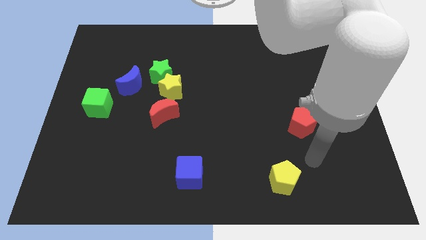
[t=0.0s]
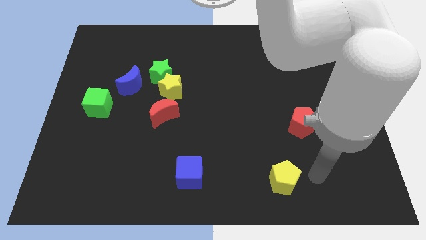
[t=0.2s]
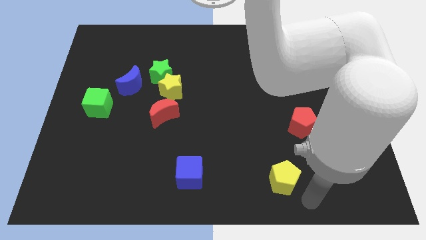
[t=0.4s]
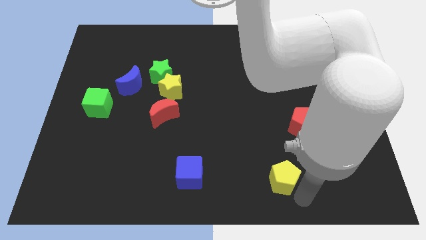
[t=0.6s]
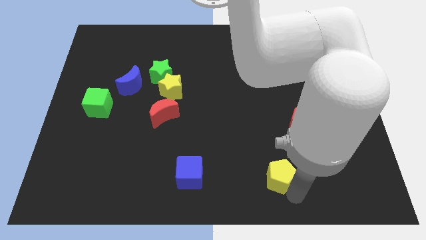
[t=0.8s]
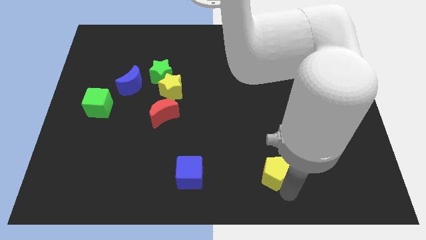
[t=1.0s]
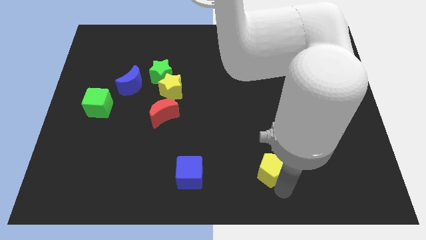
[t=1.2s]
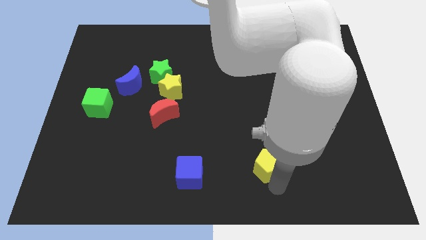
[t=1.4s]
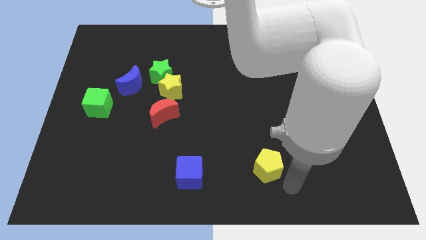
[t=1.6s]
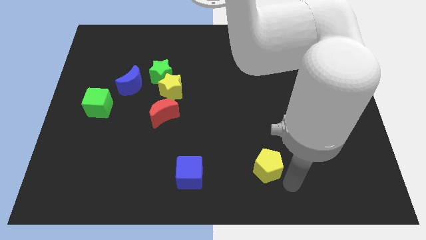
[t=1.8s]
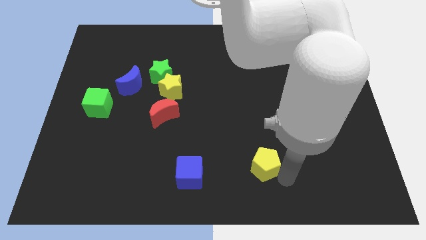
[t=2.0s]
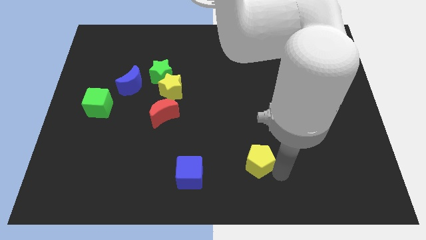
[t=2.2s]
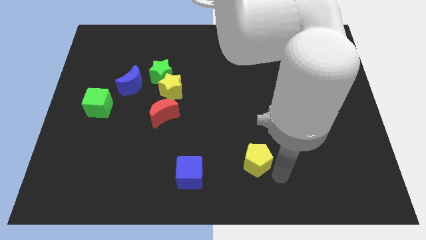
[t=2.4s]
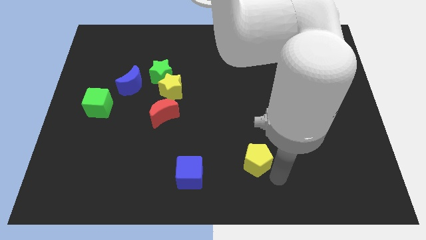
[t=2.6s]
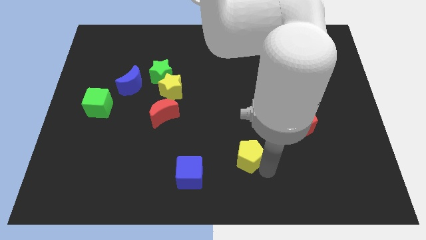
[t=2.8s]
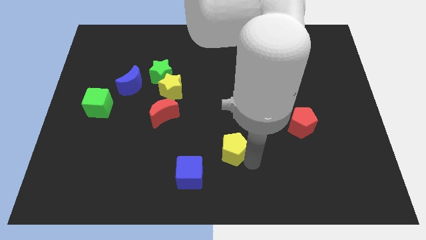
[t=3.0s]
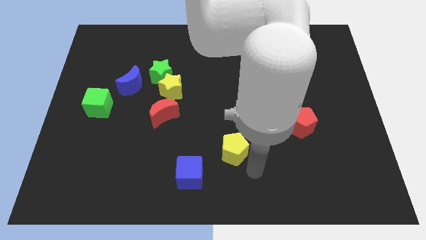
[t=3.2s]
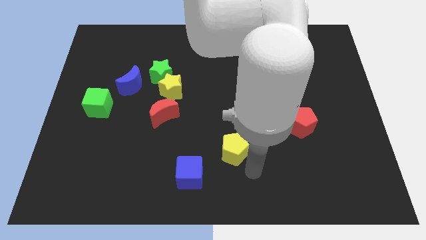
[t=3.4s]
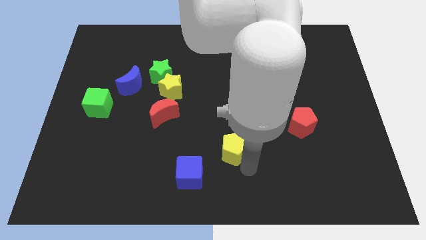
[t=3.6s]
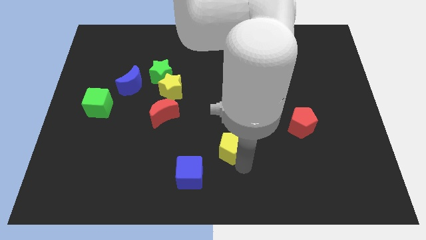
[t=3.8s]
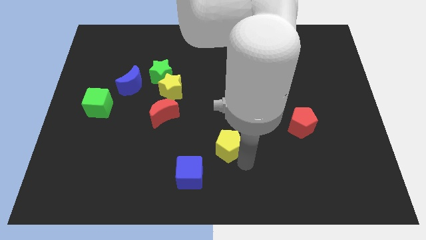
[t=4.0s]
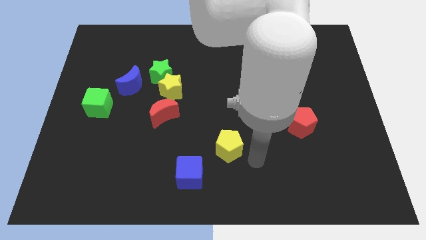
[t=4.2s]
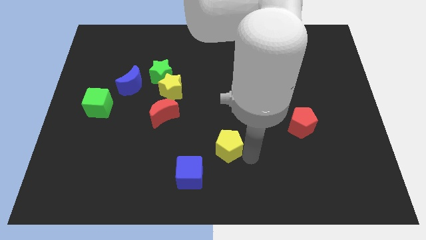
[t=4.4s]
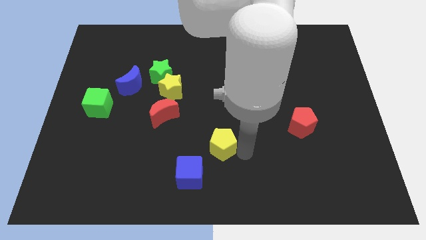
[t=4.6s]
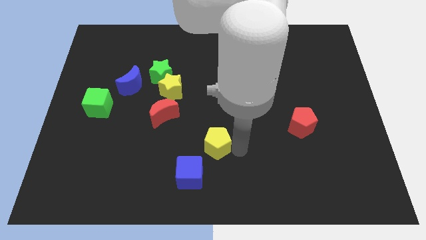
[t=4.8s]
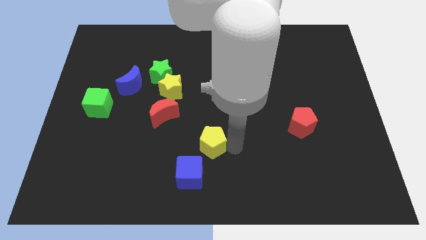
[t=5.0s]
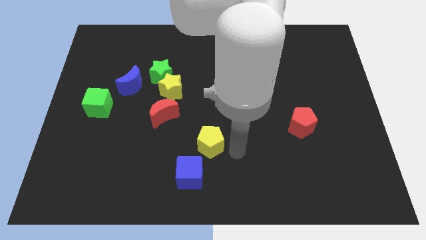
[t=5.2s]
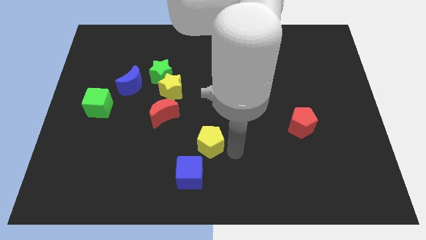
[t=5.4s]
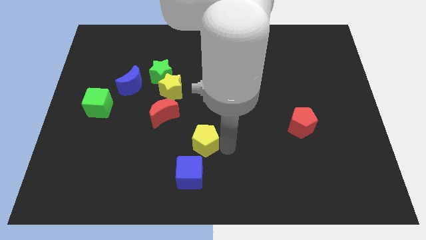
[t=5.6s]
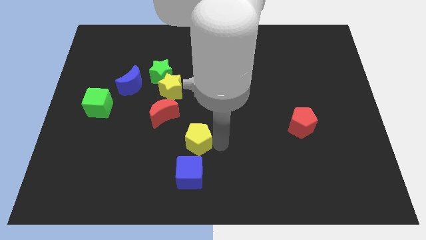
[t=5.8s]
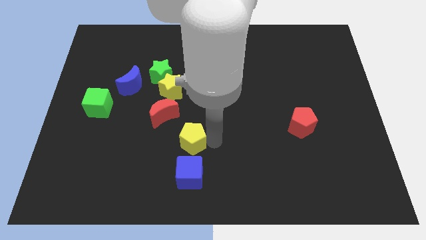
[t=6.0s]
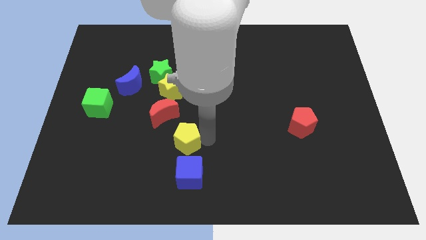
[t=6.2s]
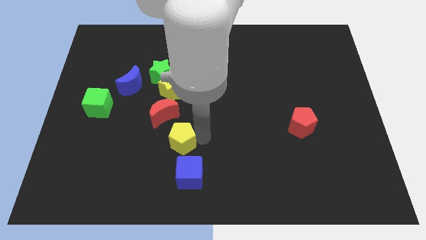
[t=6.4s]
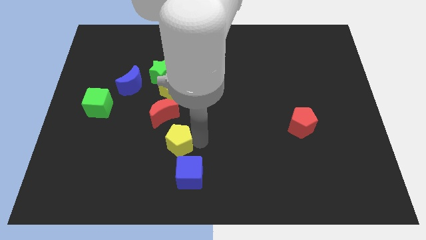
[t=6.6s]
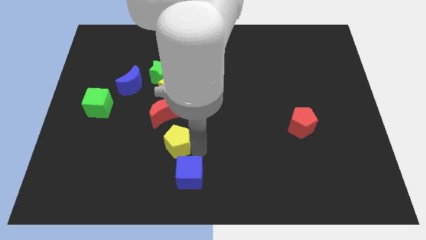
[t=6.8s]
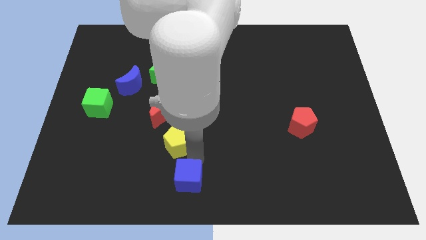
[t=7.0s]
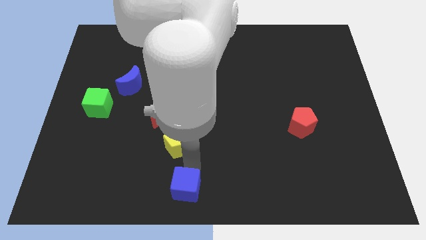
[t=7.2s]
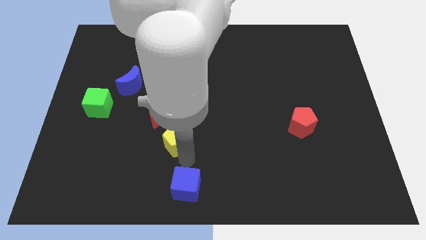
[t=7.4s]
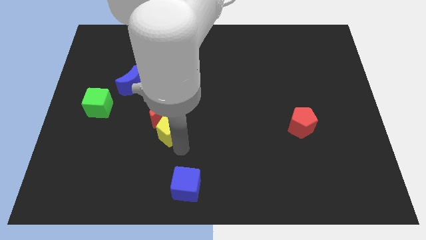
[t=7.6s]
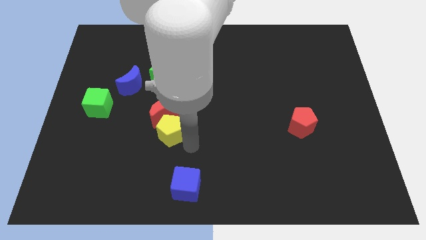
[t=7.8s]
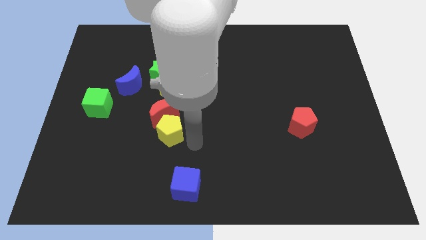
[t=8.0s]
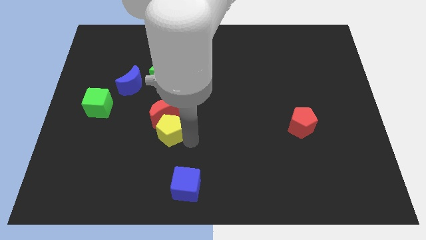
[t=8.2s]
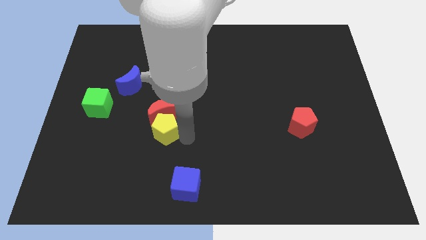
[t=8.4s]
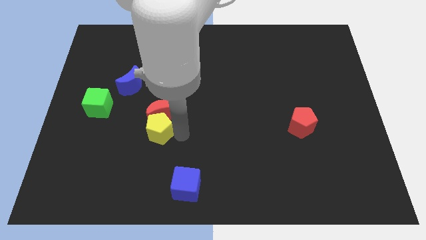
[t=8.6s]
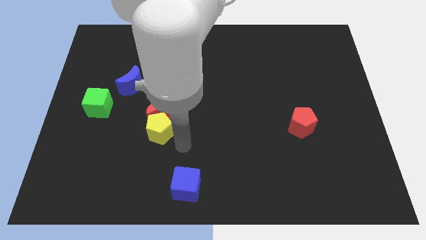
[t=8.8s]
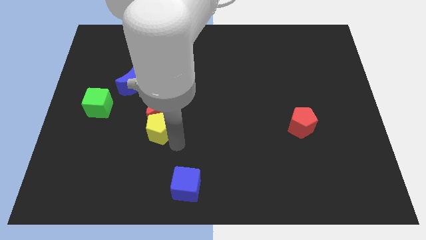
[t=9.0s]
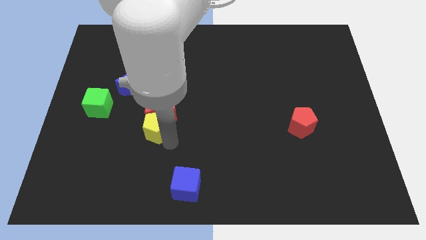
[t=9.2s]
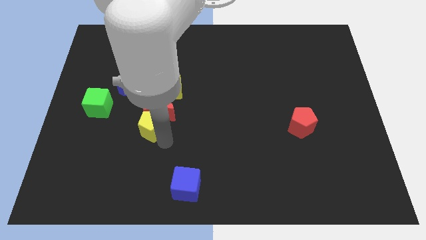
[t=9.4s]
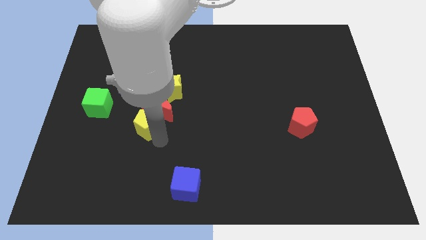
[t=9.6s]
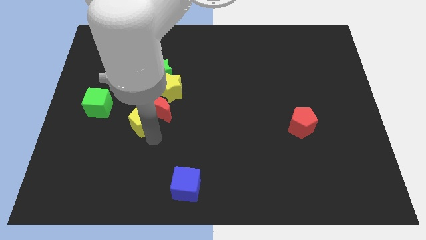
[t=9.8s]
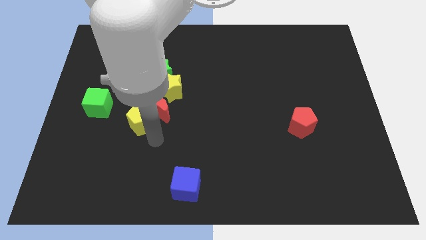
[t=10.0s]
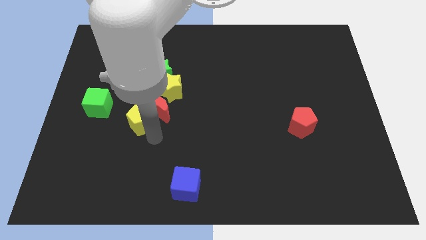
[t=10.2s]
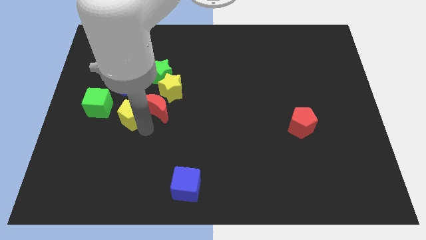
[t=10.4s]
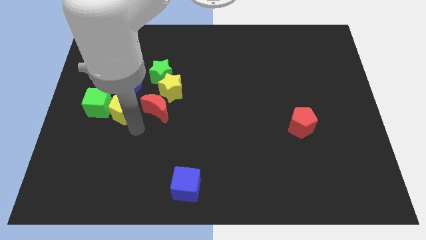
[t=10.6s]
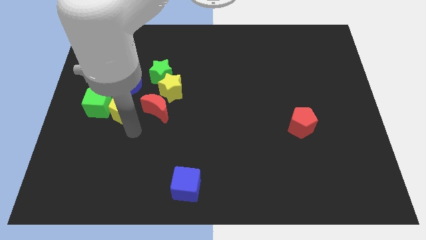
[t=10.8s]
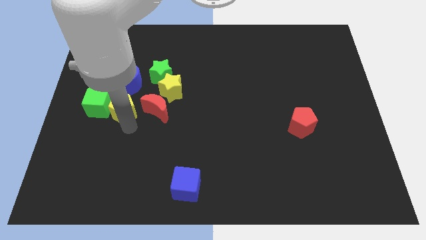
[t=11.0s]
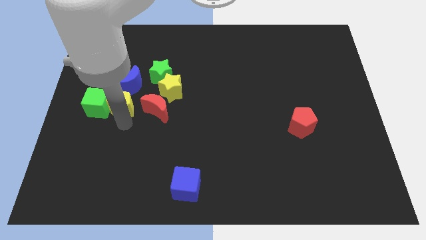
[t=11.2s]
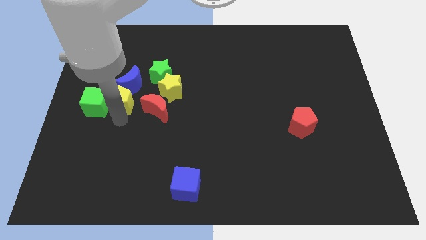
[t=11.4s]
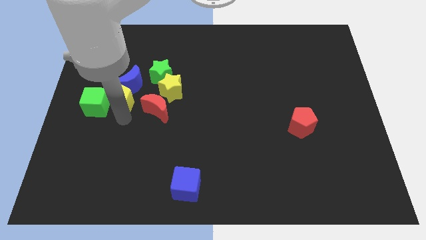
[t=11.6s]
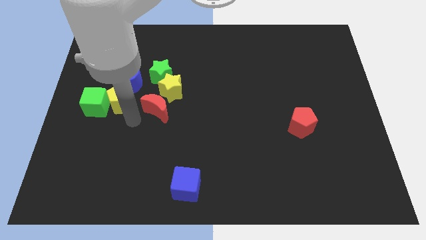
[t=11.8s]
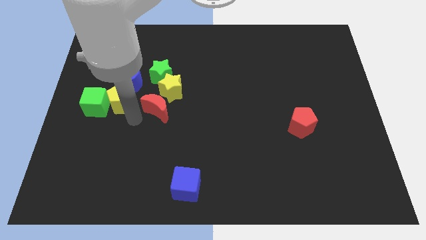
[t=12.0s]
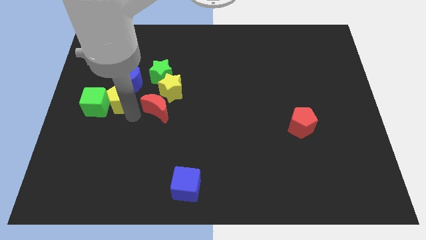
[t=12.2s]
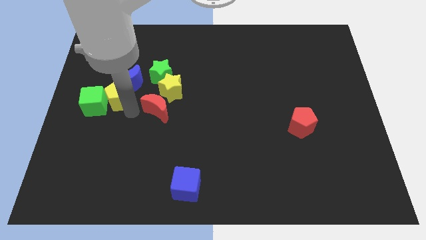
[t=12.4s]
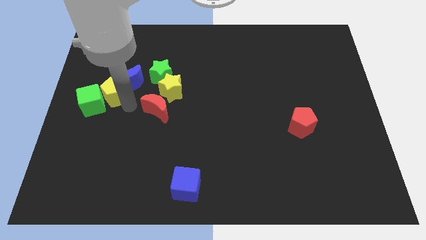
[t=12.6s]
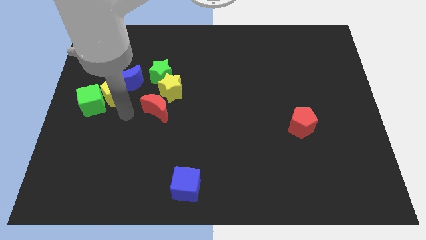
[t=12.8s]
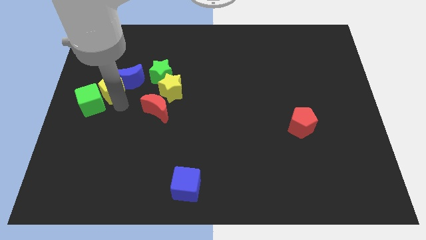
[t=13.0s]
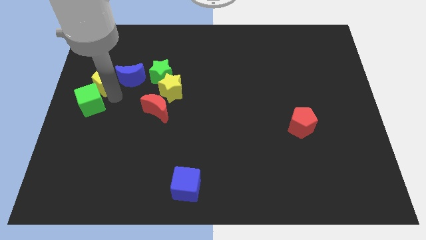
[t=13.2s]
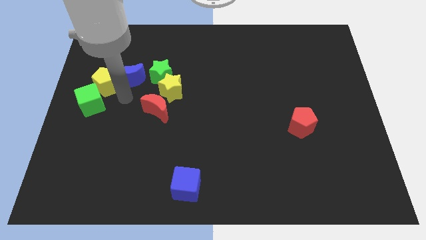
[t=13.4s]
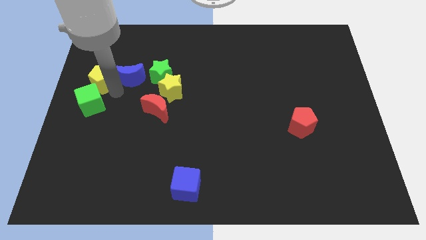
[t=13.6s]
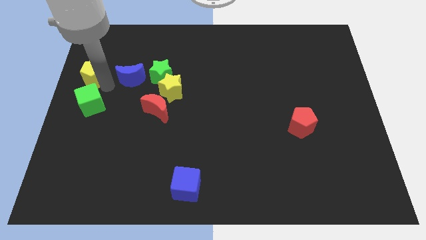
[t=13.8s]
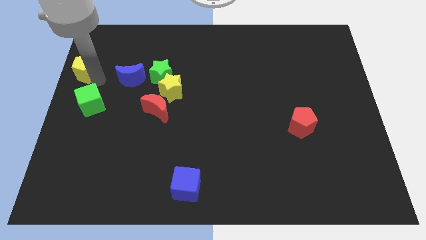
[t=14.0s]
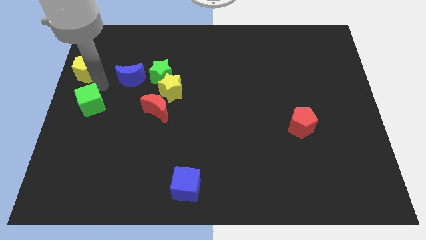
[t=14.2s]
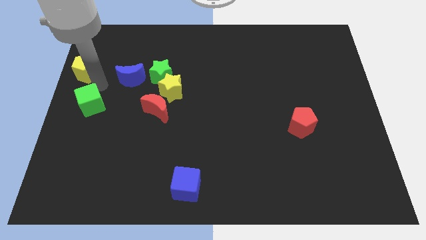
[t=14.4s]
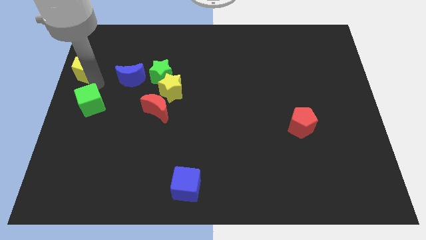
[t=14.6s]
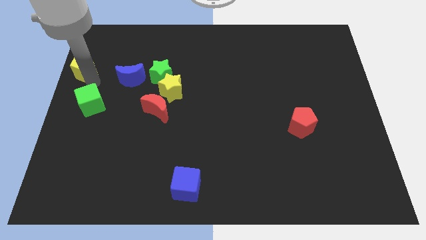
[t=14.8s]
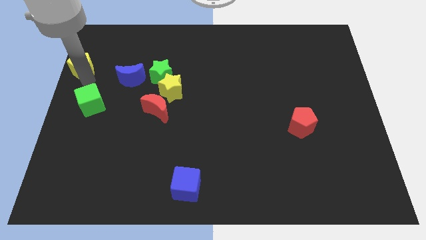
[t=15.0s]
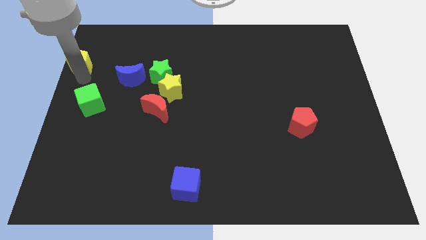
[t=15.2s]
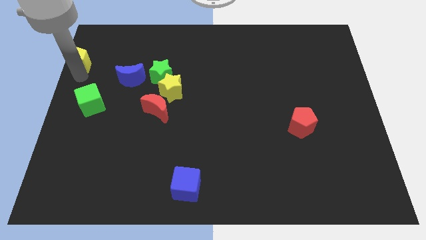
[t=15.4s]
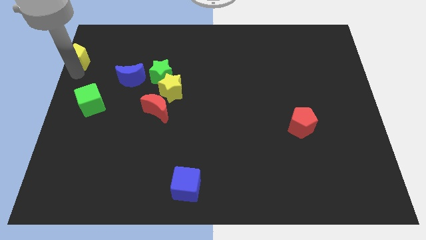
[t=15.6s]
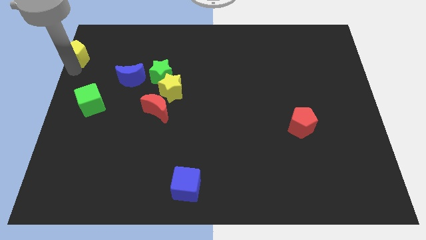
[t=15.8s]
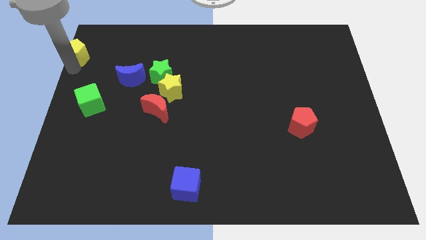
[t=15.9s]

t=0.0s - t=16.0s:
put the yellow pentagon to the upper left corner
